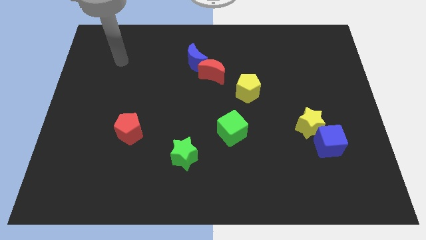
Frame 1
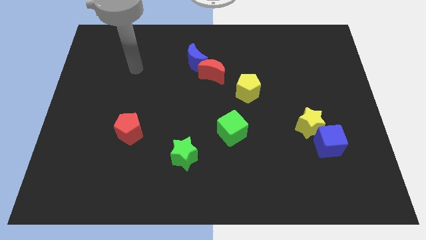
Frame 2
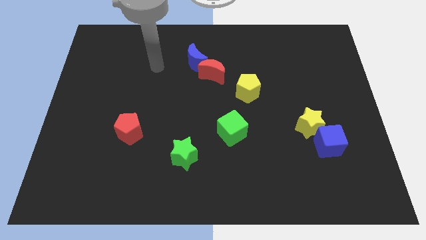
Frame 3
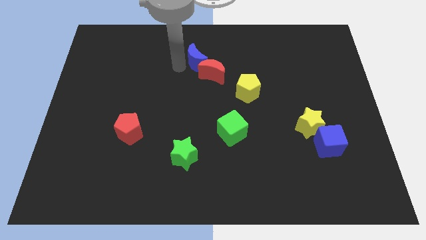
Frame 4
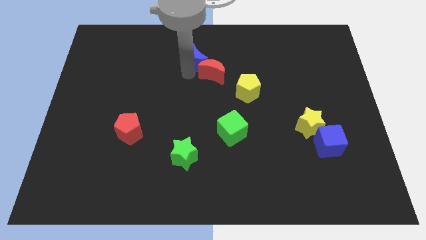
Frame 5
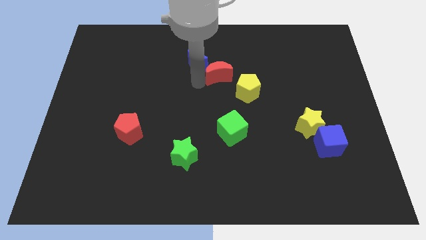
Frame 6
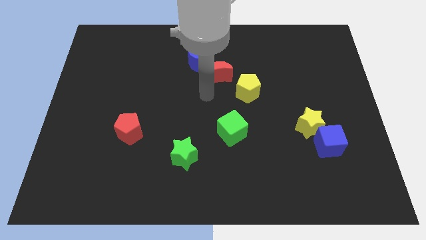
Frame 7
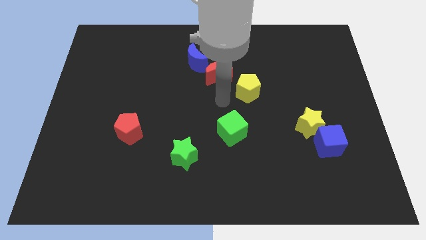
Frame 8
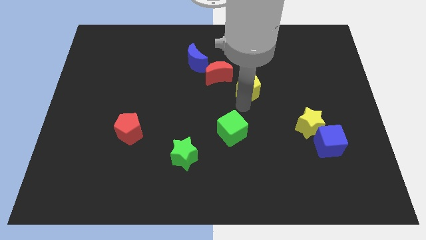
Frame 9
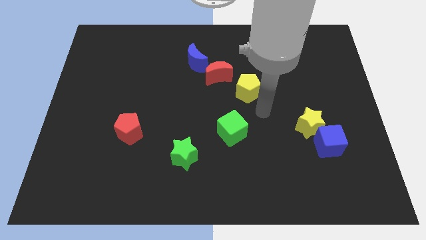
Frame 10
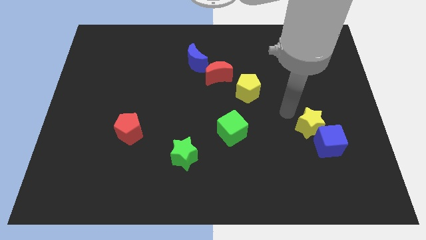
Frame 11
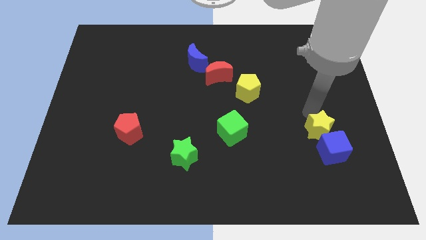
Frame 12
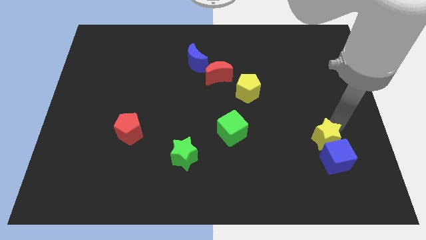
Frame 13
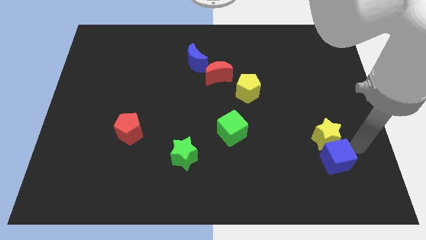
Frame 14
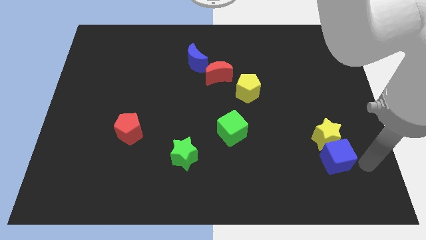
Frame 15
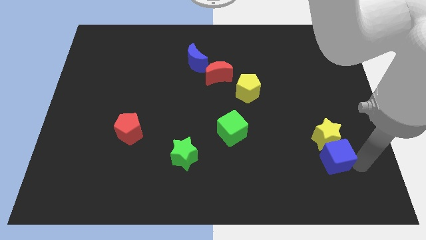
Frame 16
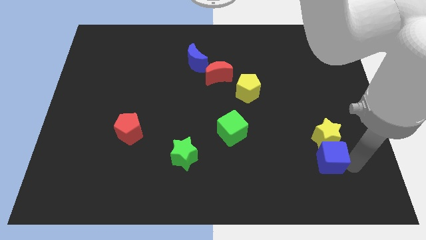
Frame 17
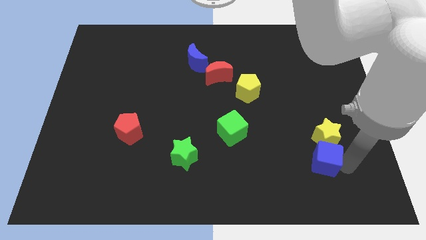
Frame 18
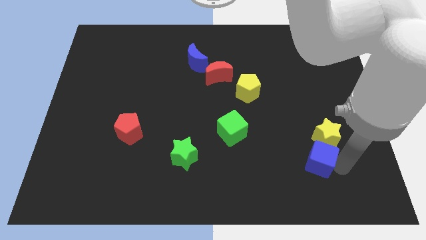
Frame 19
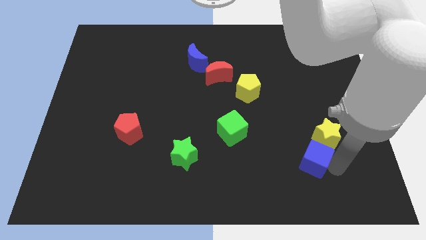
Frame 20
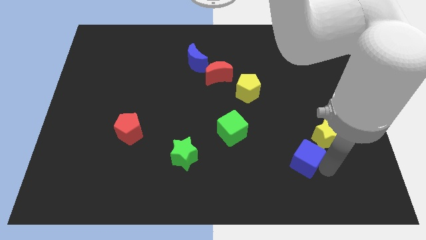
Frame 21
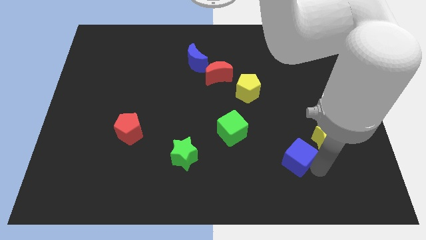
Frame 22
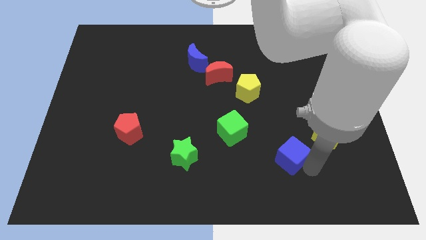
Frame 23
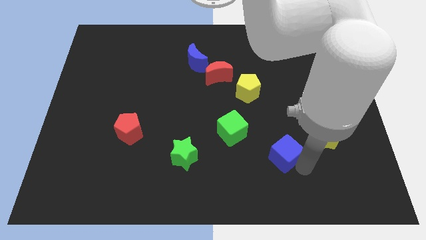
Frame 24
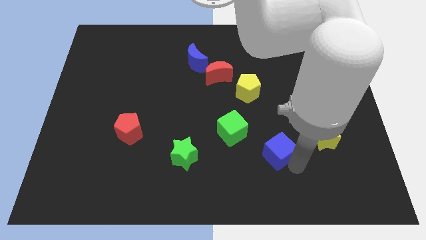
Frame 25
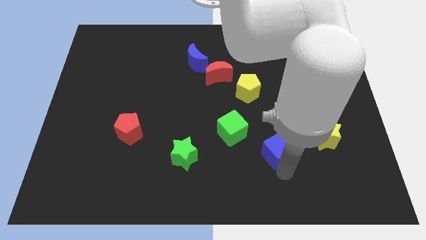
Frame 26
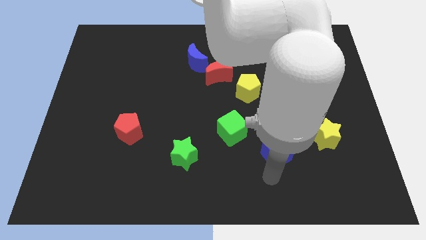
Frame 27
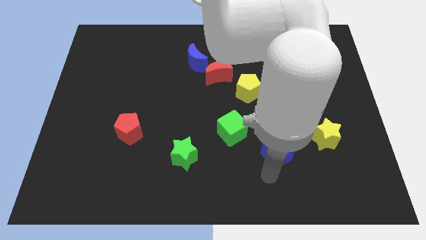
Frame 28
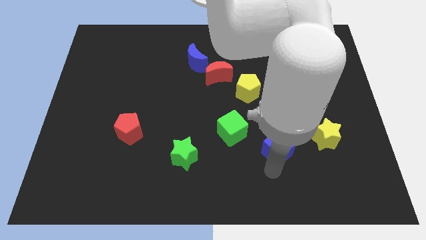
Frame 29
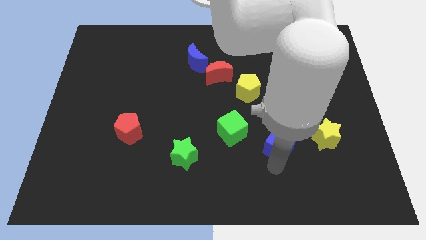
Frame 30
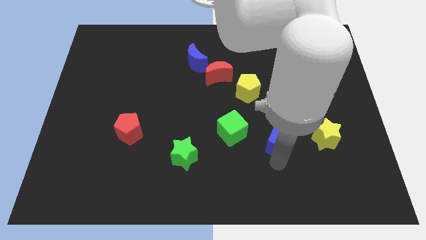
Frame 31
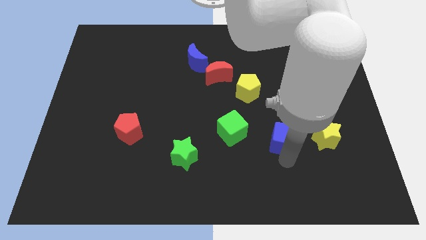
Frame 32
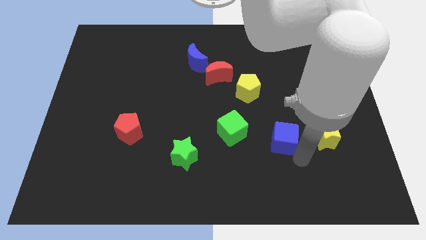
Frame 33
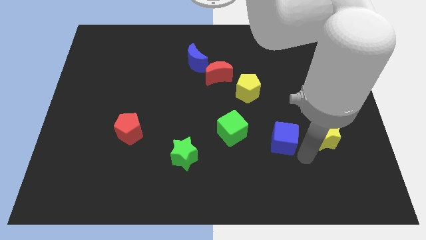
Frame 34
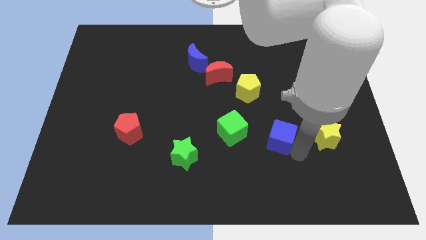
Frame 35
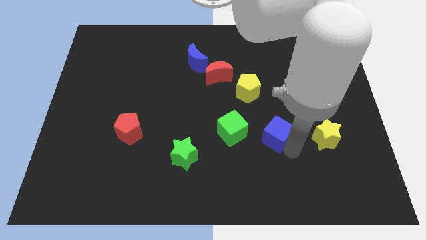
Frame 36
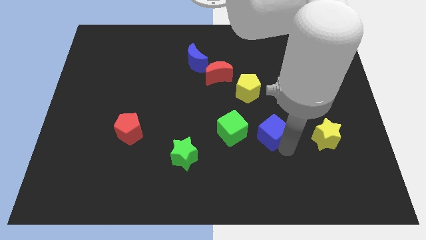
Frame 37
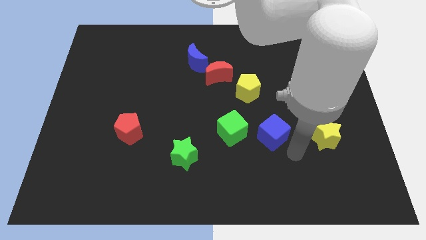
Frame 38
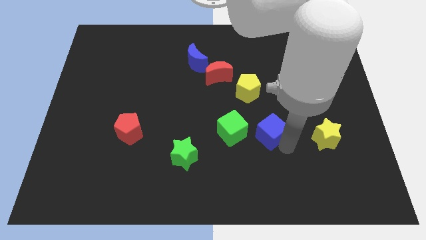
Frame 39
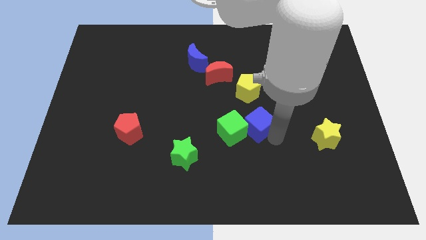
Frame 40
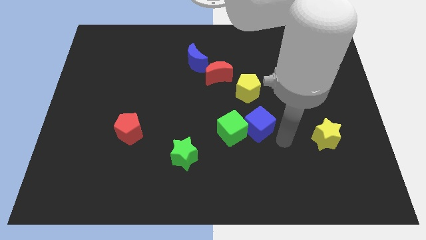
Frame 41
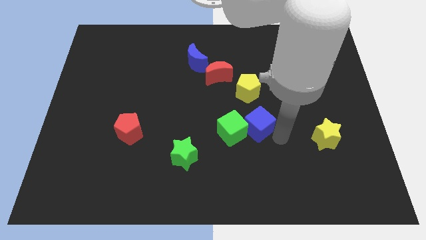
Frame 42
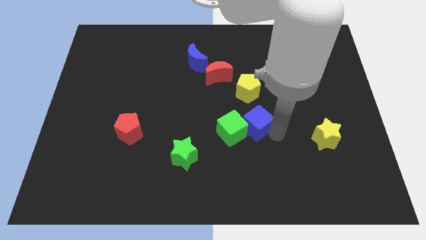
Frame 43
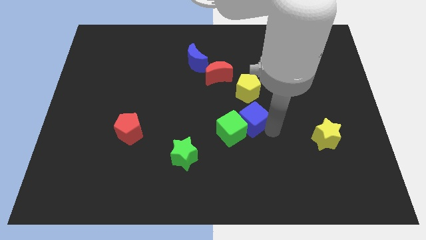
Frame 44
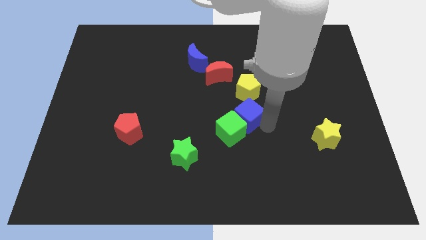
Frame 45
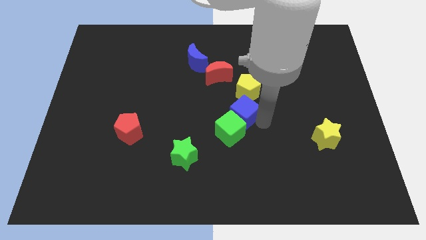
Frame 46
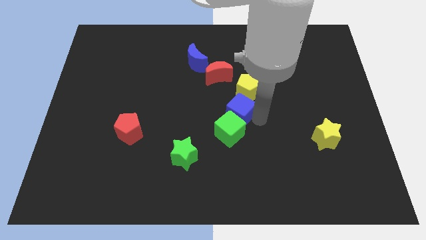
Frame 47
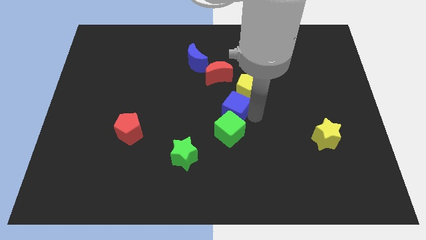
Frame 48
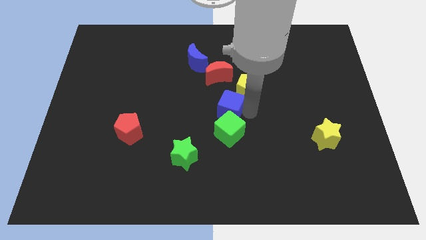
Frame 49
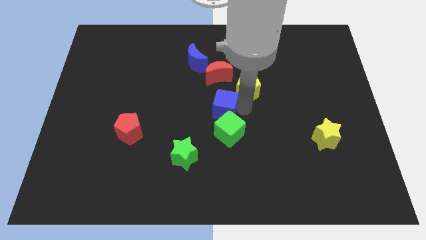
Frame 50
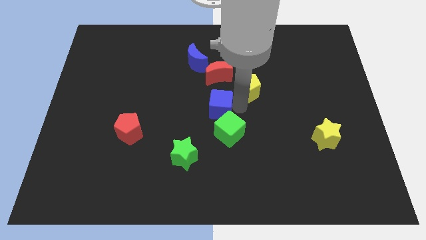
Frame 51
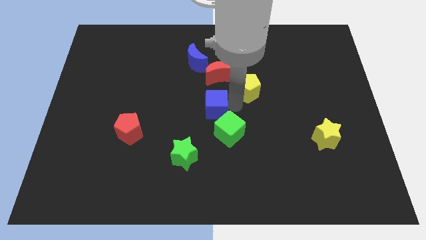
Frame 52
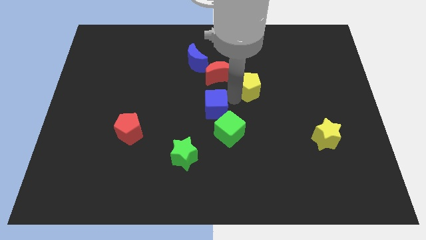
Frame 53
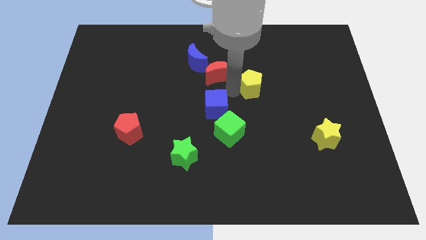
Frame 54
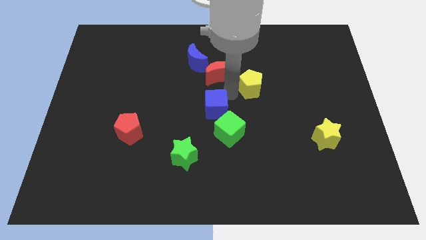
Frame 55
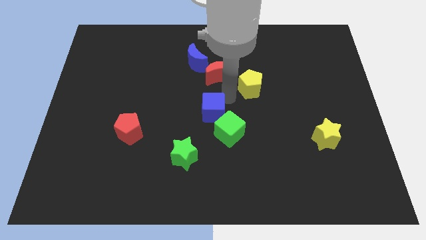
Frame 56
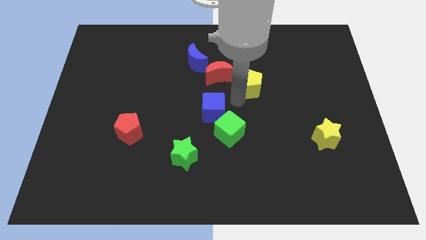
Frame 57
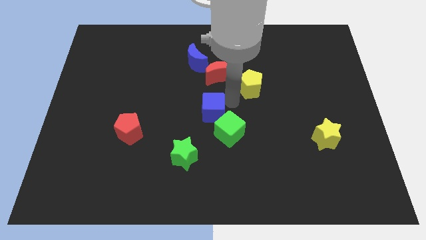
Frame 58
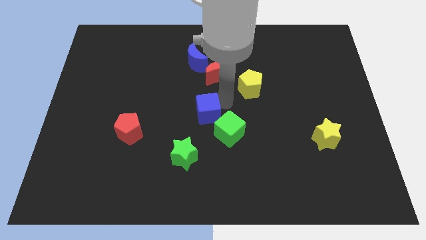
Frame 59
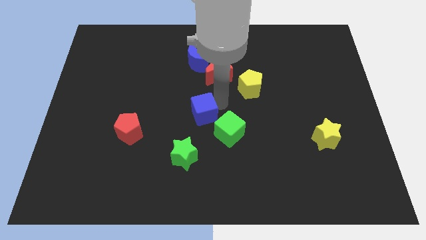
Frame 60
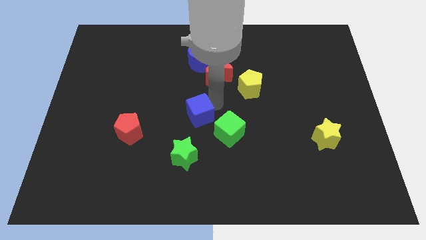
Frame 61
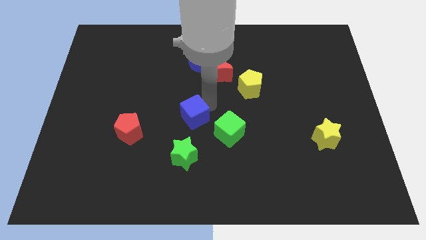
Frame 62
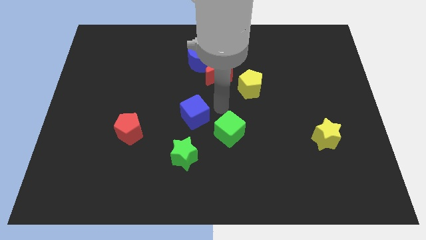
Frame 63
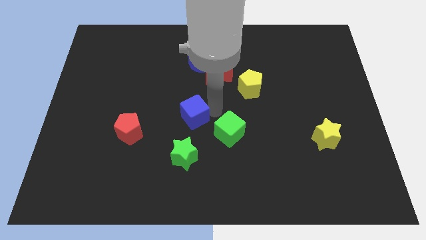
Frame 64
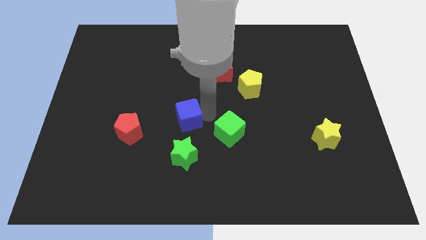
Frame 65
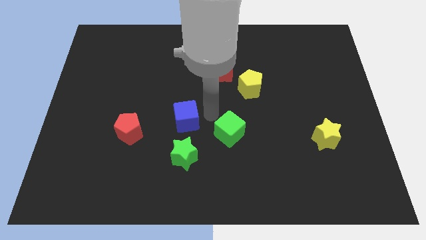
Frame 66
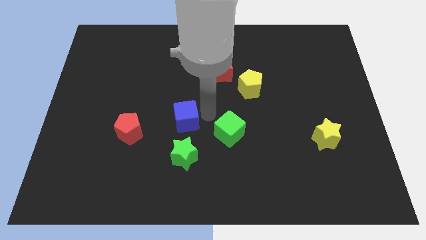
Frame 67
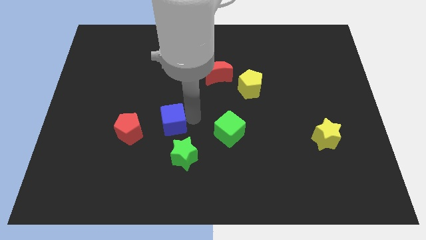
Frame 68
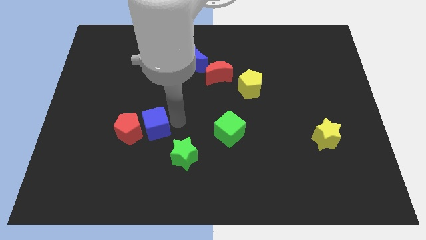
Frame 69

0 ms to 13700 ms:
push the blue cube to the red pentagon
